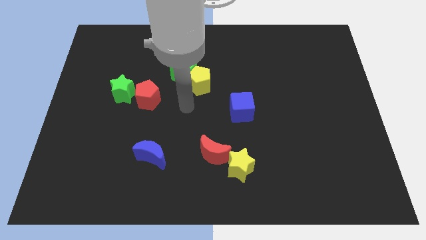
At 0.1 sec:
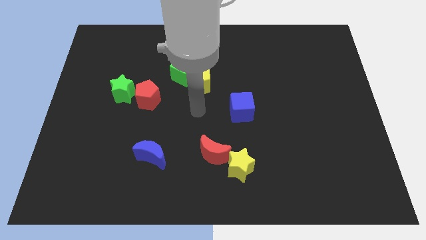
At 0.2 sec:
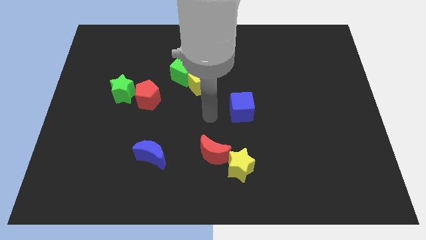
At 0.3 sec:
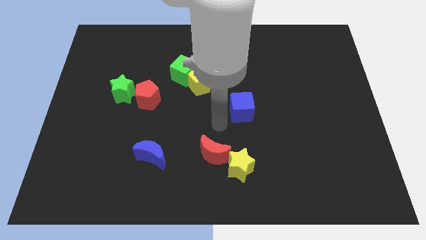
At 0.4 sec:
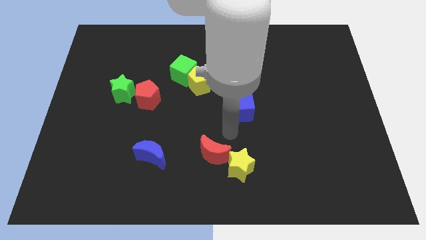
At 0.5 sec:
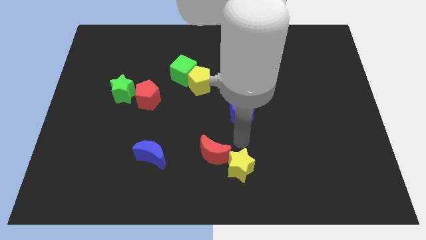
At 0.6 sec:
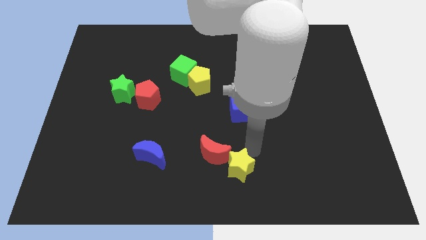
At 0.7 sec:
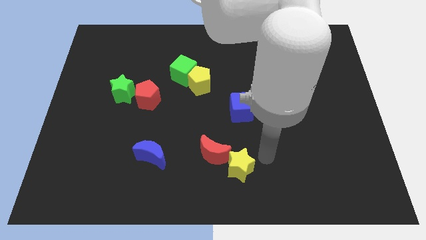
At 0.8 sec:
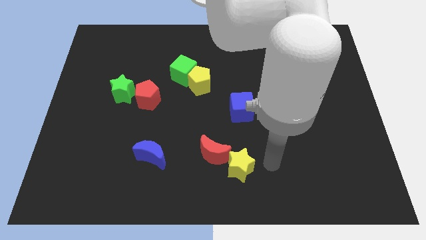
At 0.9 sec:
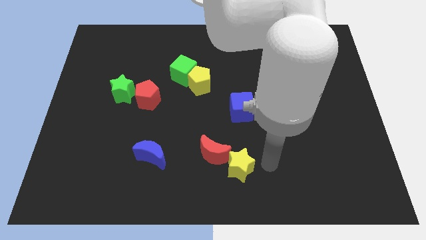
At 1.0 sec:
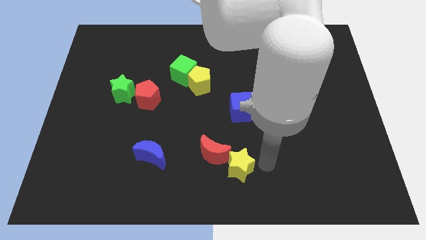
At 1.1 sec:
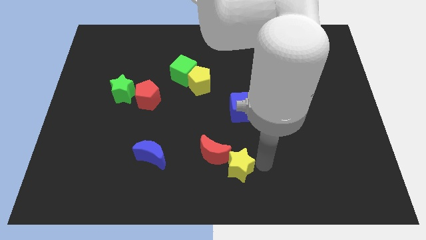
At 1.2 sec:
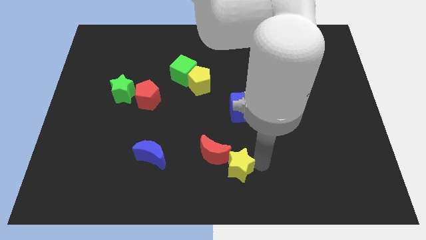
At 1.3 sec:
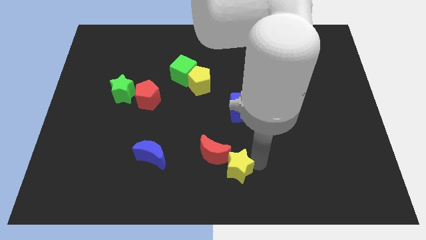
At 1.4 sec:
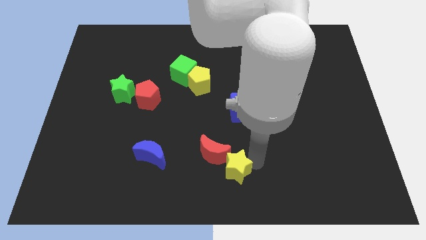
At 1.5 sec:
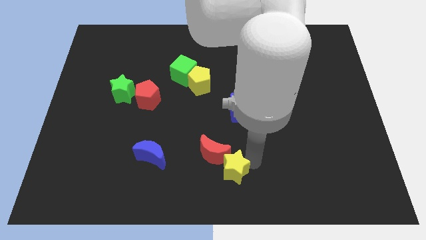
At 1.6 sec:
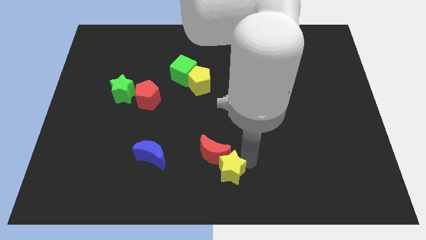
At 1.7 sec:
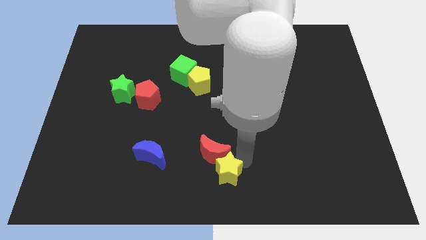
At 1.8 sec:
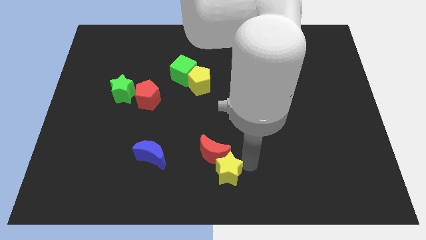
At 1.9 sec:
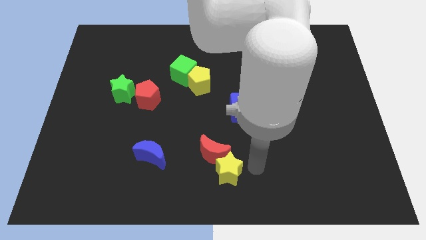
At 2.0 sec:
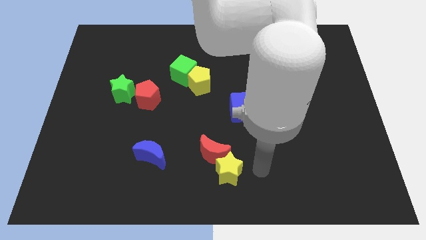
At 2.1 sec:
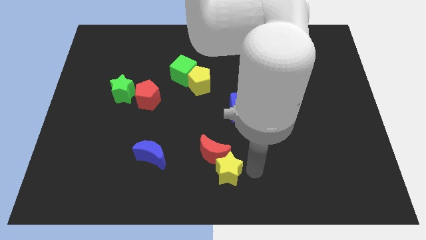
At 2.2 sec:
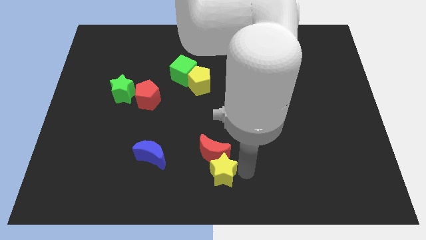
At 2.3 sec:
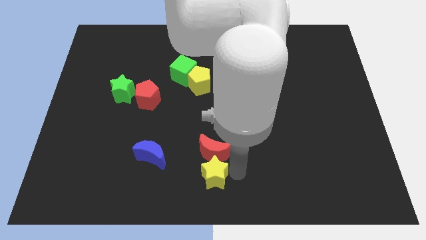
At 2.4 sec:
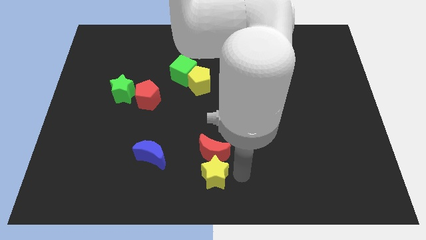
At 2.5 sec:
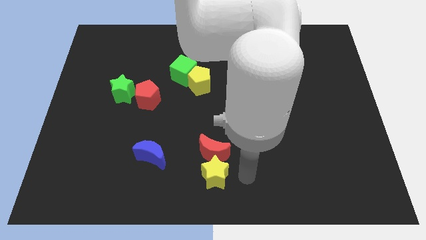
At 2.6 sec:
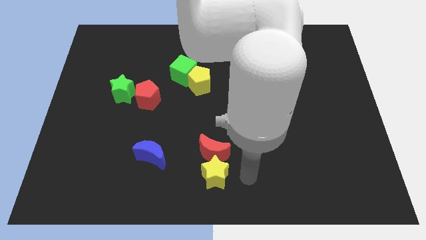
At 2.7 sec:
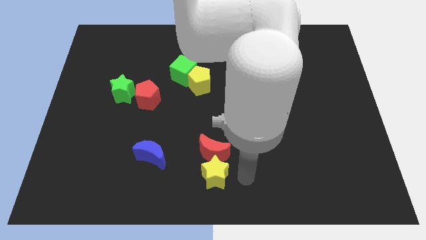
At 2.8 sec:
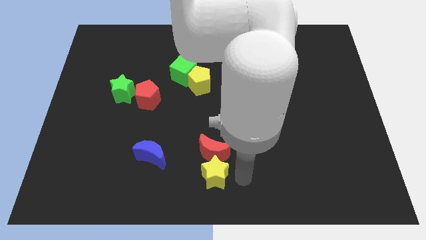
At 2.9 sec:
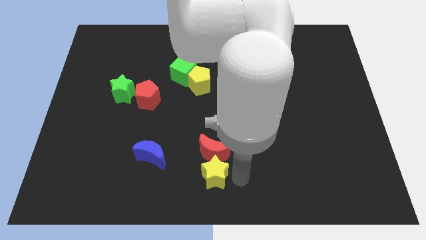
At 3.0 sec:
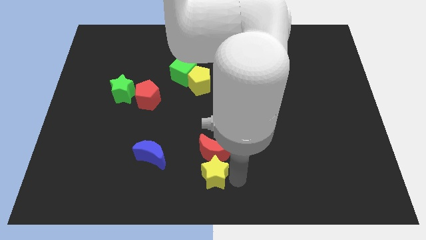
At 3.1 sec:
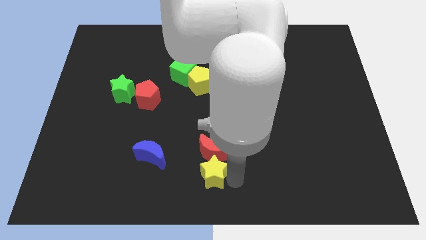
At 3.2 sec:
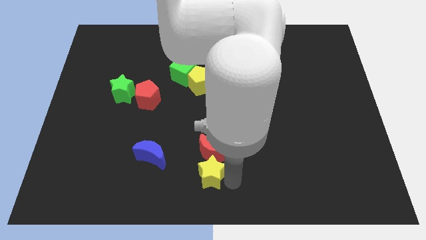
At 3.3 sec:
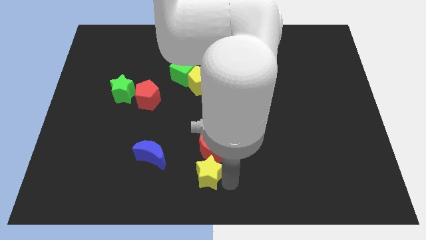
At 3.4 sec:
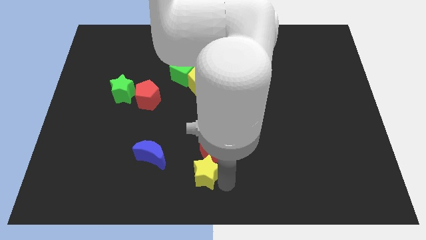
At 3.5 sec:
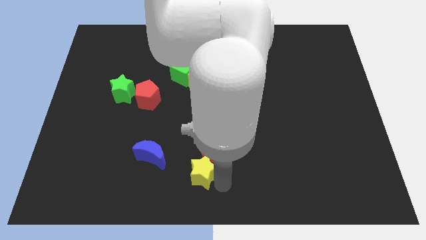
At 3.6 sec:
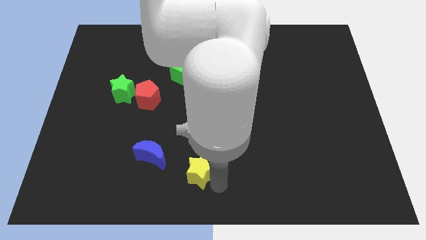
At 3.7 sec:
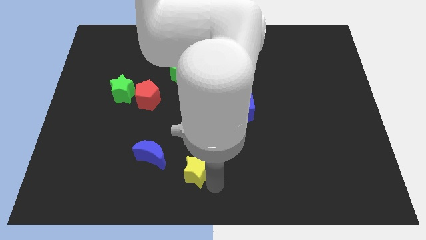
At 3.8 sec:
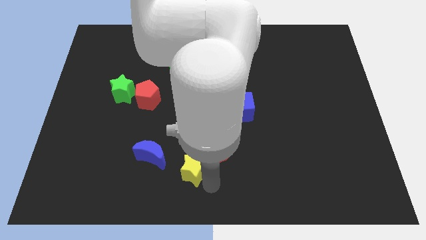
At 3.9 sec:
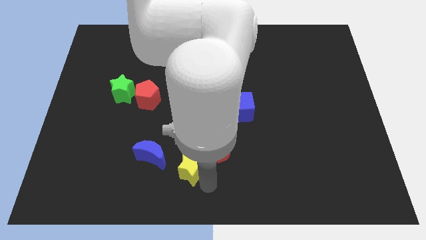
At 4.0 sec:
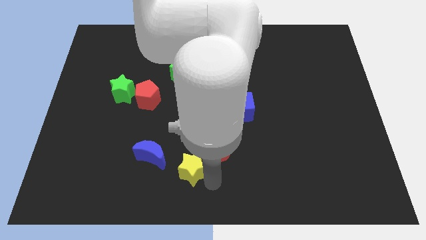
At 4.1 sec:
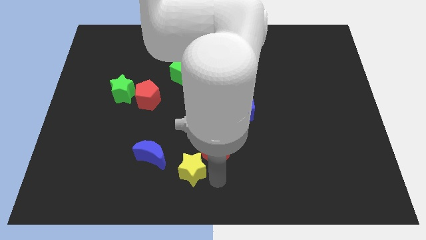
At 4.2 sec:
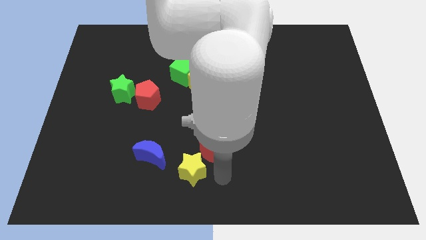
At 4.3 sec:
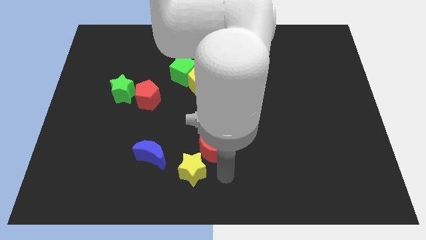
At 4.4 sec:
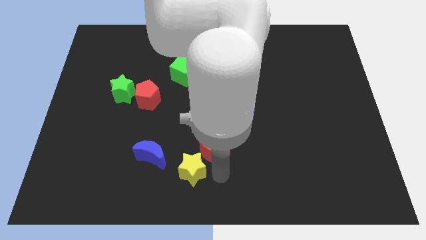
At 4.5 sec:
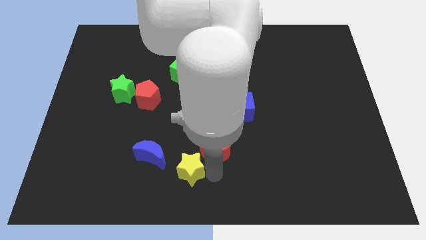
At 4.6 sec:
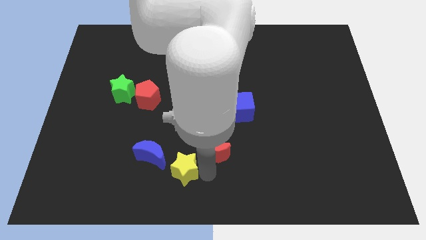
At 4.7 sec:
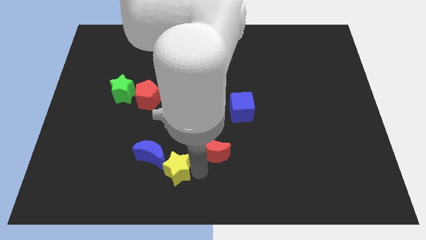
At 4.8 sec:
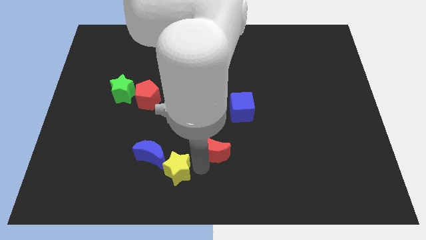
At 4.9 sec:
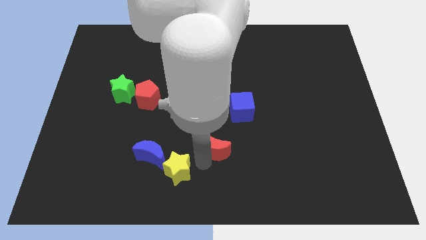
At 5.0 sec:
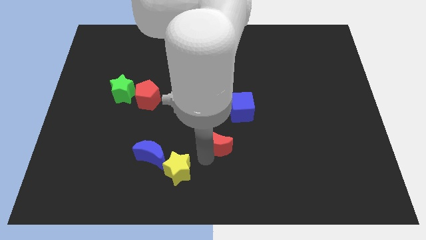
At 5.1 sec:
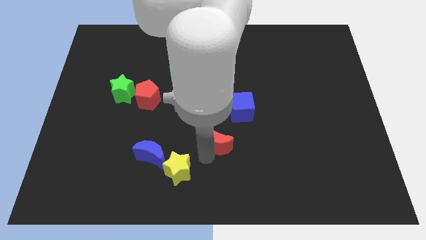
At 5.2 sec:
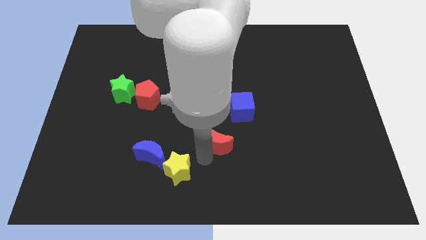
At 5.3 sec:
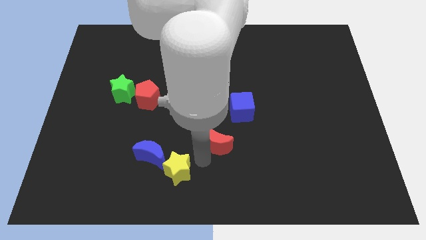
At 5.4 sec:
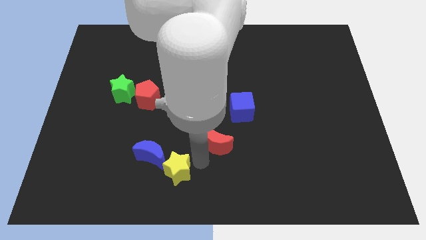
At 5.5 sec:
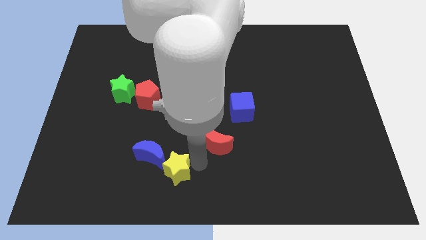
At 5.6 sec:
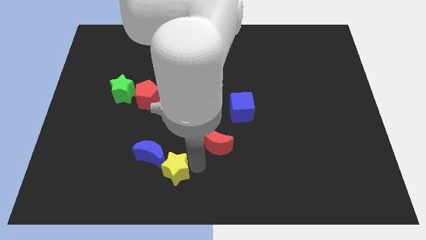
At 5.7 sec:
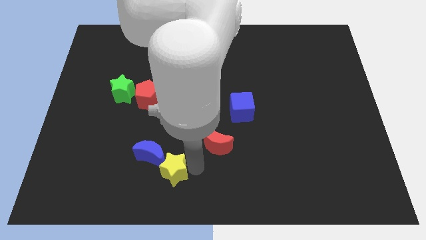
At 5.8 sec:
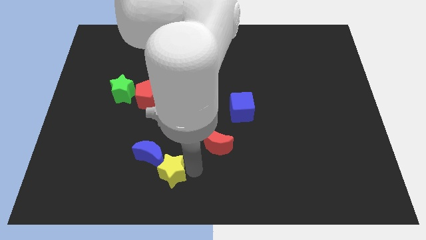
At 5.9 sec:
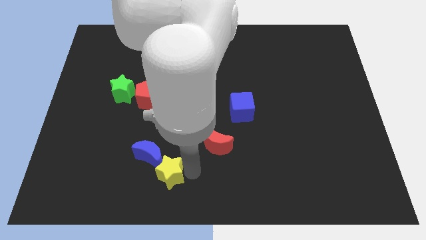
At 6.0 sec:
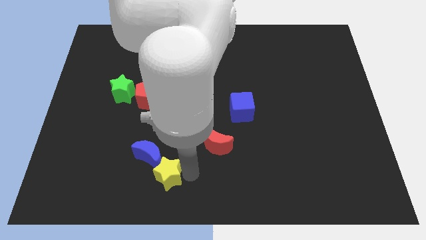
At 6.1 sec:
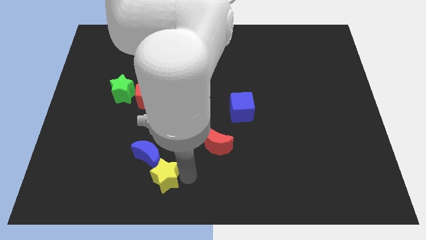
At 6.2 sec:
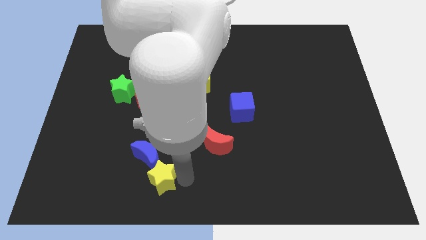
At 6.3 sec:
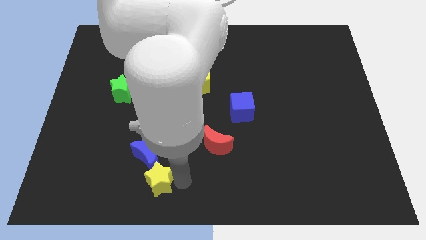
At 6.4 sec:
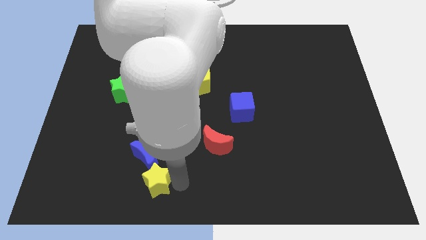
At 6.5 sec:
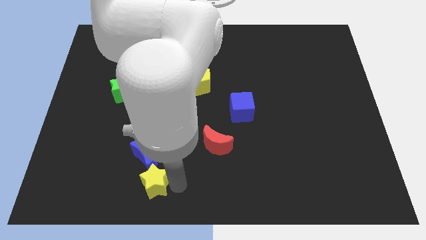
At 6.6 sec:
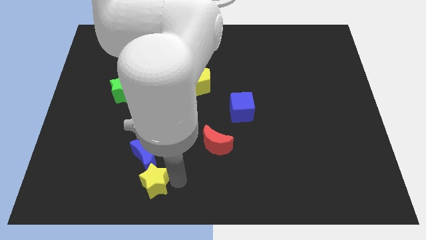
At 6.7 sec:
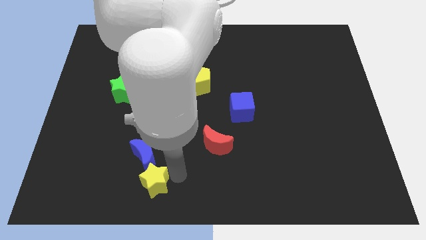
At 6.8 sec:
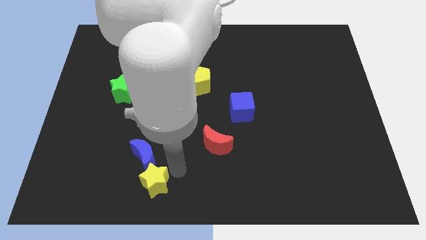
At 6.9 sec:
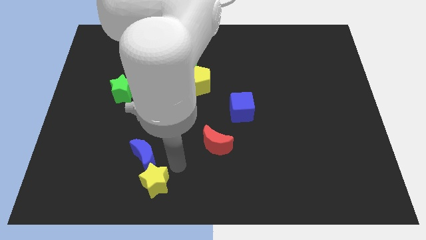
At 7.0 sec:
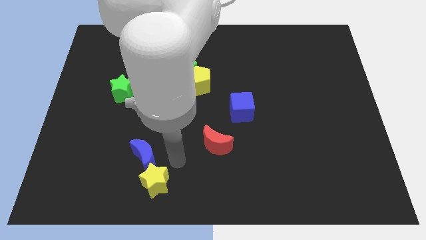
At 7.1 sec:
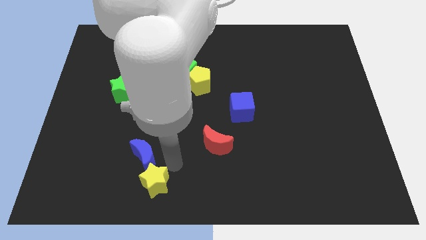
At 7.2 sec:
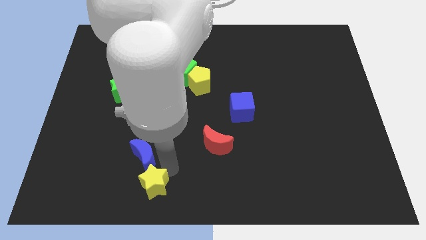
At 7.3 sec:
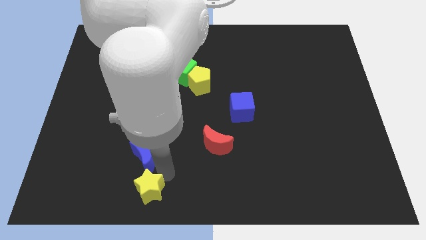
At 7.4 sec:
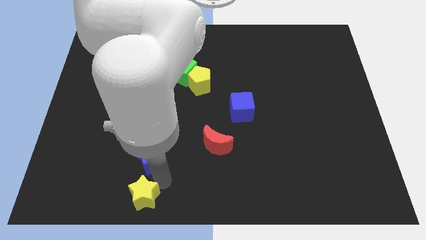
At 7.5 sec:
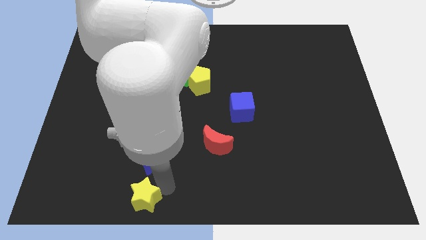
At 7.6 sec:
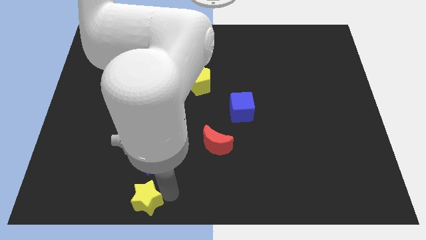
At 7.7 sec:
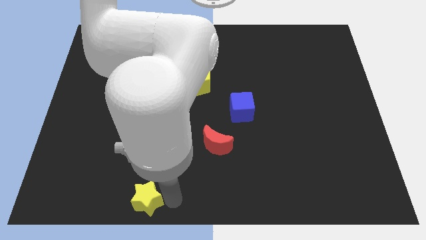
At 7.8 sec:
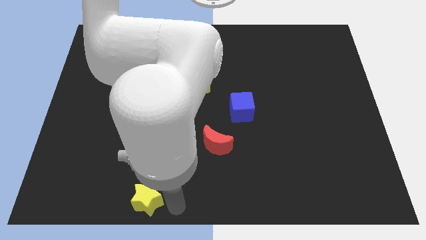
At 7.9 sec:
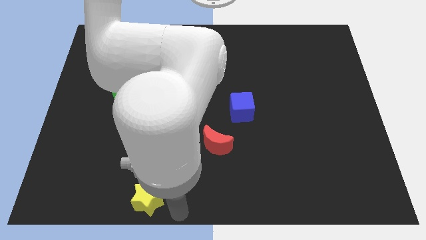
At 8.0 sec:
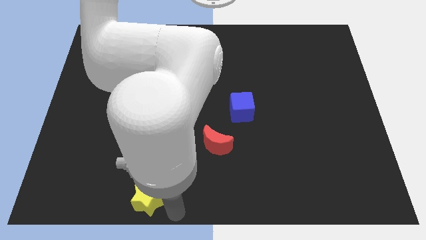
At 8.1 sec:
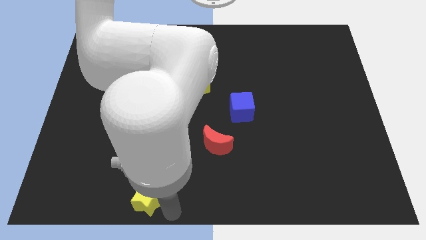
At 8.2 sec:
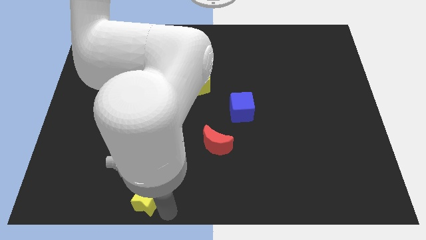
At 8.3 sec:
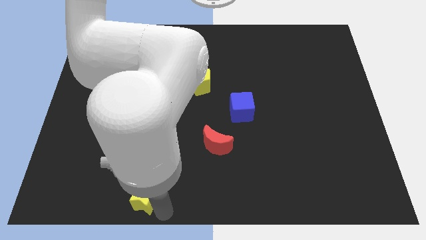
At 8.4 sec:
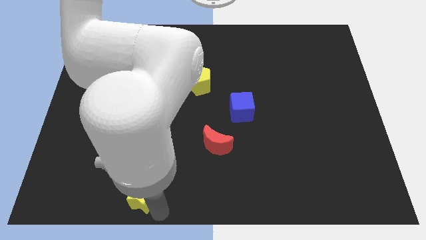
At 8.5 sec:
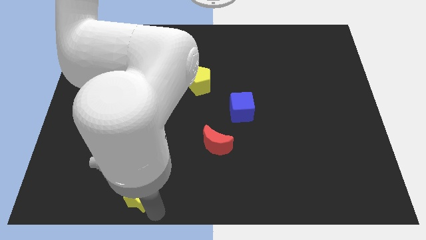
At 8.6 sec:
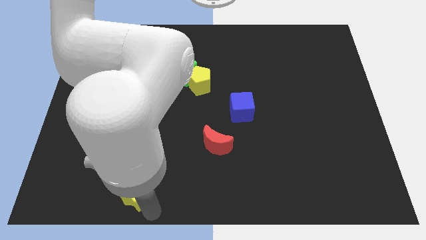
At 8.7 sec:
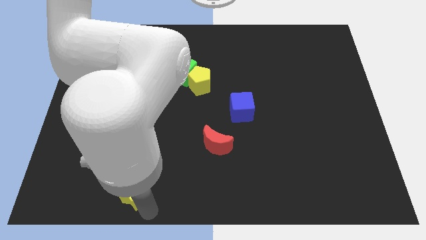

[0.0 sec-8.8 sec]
slide the yellow star to the left
